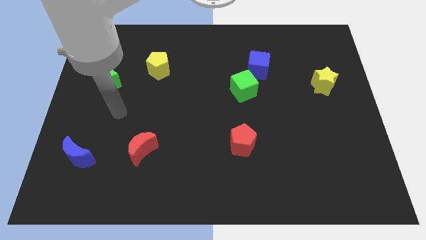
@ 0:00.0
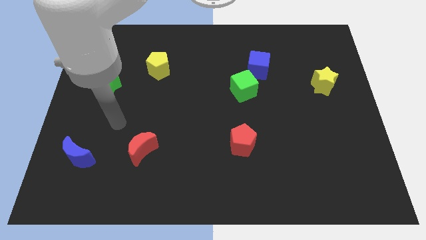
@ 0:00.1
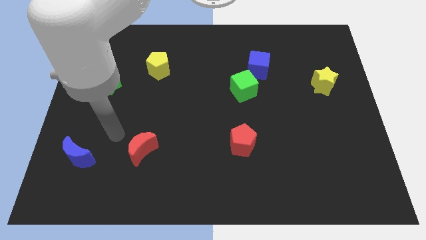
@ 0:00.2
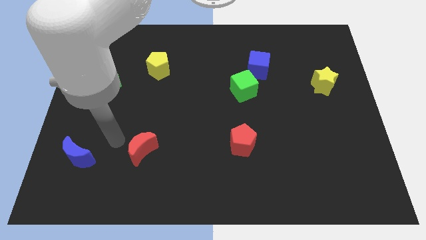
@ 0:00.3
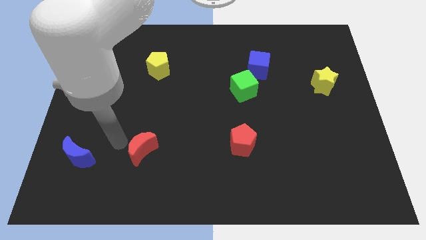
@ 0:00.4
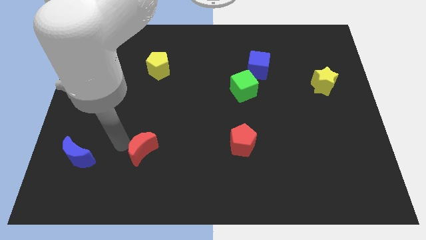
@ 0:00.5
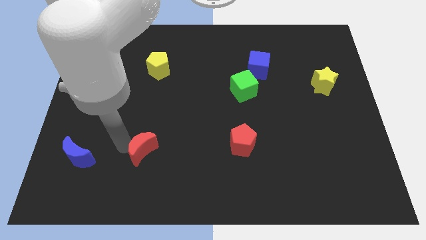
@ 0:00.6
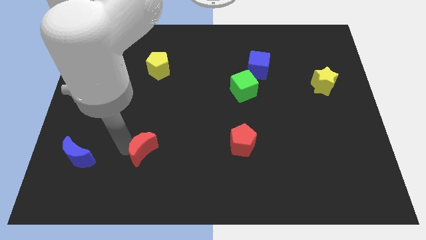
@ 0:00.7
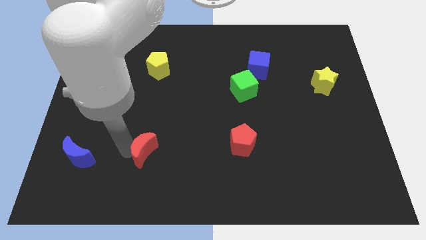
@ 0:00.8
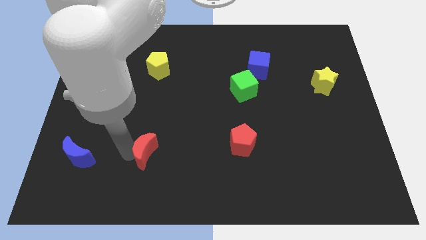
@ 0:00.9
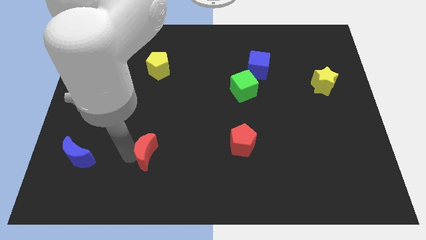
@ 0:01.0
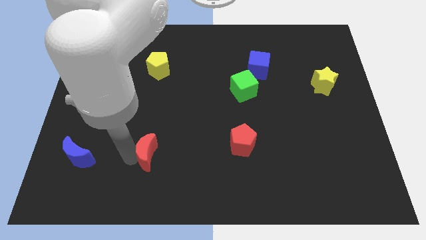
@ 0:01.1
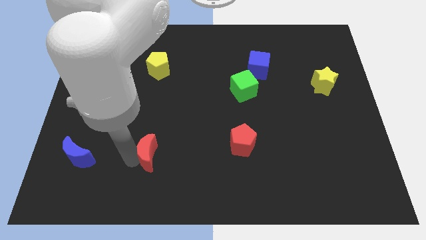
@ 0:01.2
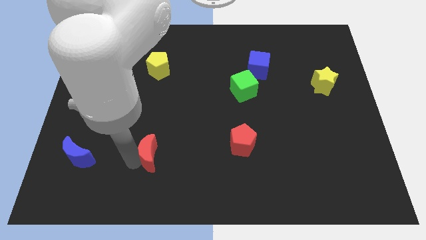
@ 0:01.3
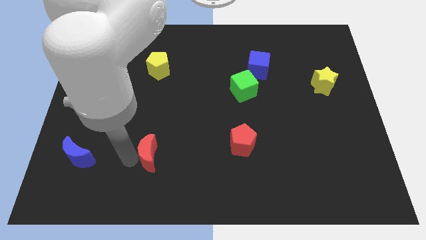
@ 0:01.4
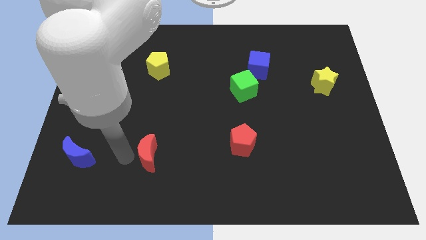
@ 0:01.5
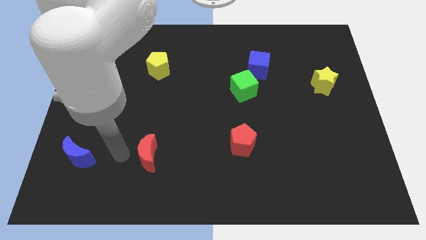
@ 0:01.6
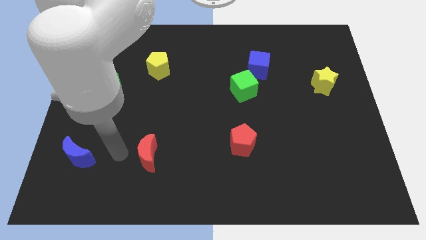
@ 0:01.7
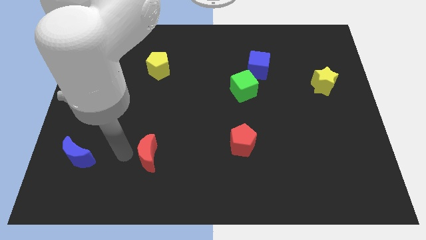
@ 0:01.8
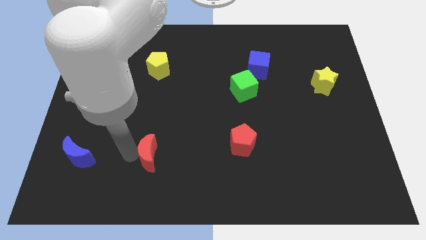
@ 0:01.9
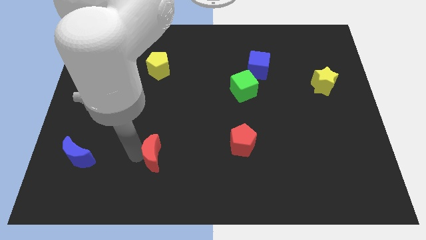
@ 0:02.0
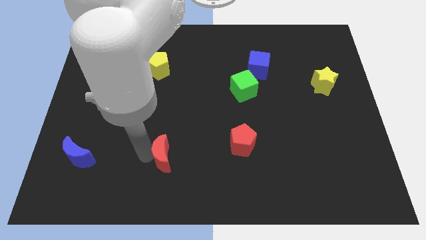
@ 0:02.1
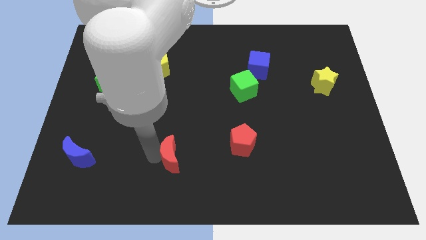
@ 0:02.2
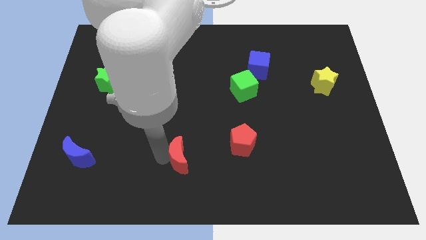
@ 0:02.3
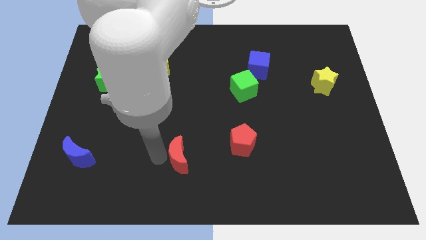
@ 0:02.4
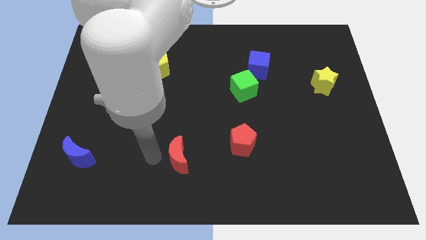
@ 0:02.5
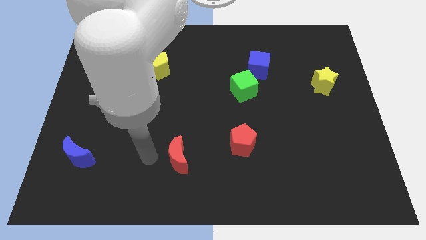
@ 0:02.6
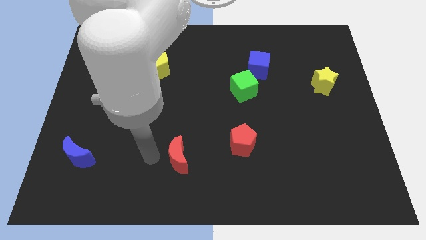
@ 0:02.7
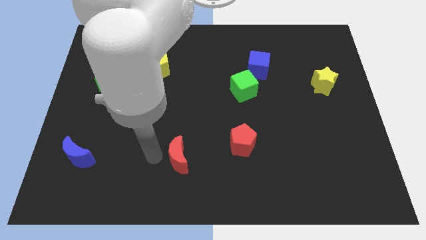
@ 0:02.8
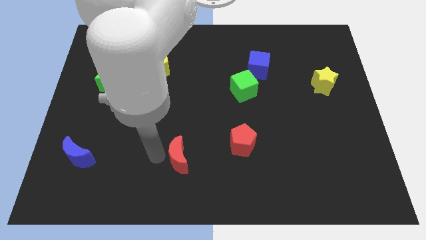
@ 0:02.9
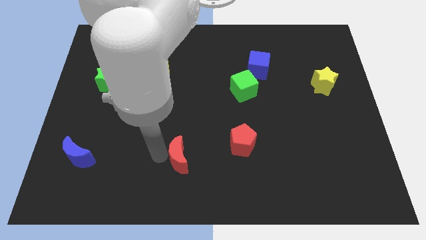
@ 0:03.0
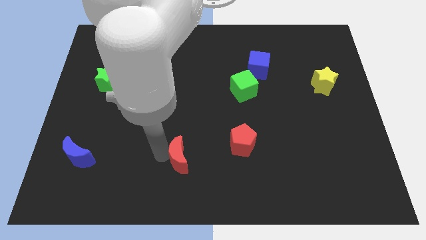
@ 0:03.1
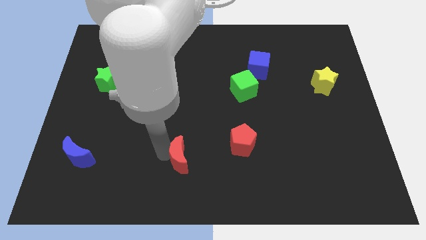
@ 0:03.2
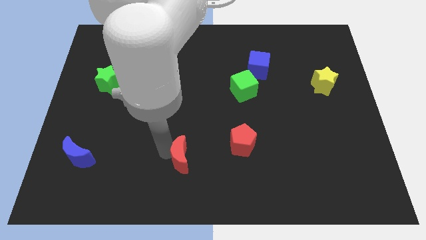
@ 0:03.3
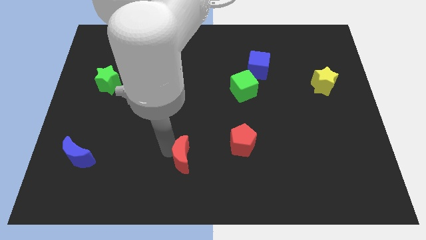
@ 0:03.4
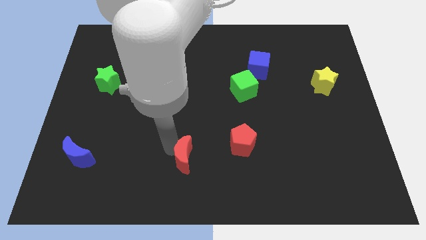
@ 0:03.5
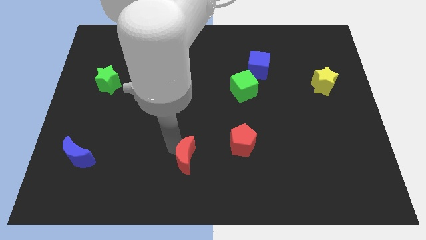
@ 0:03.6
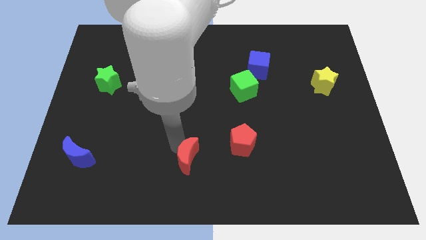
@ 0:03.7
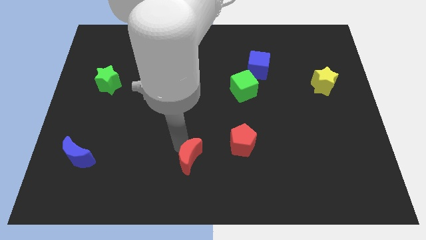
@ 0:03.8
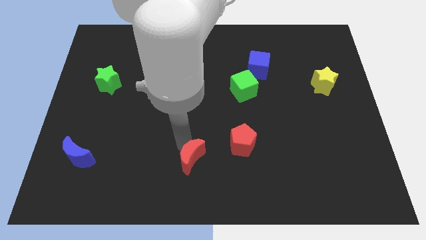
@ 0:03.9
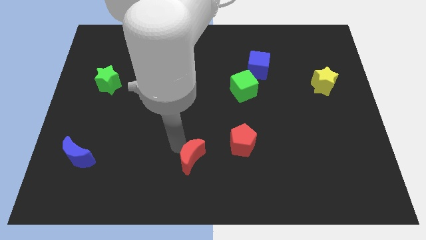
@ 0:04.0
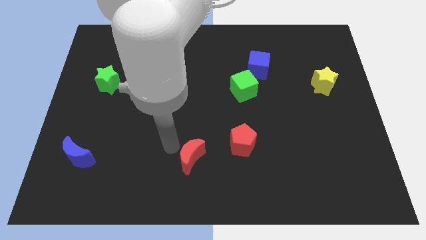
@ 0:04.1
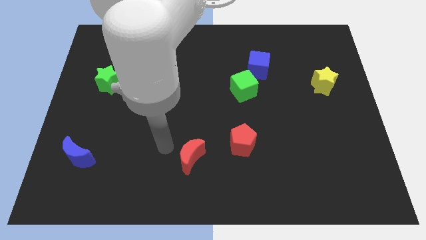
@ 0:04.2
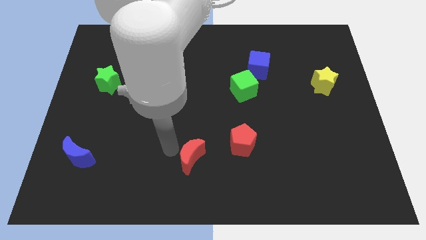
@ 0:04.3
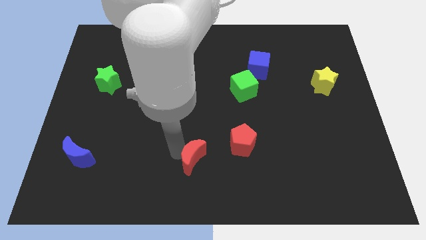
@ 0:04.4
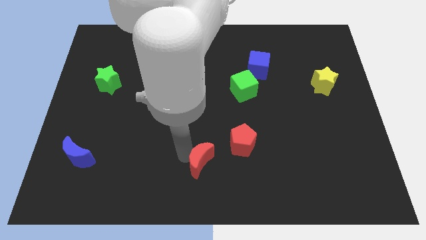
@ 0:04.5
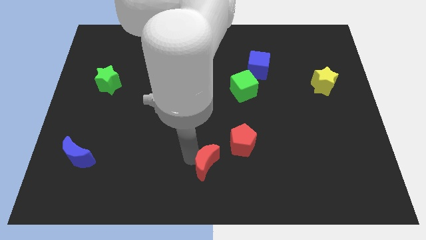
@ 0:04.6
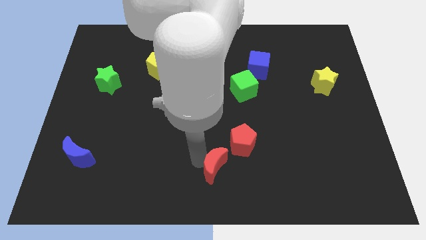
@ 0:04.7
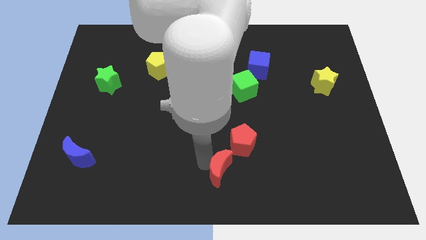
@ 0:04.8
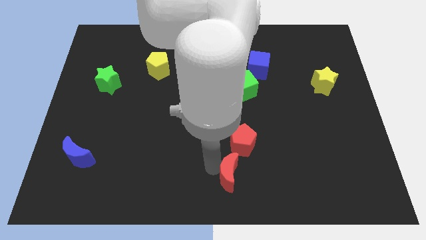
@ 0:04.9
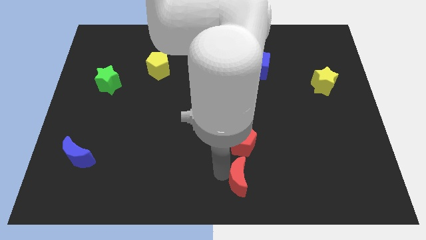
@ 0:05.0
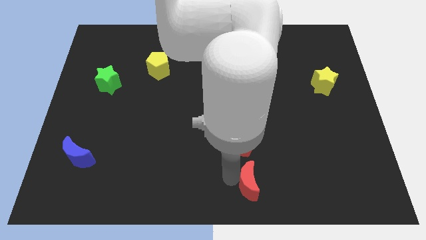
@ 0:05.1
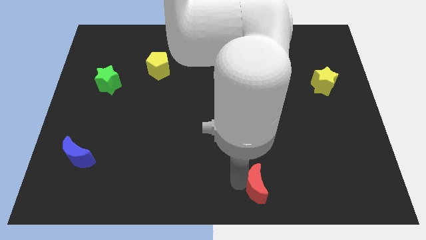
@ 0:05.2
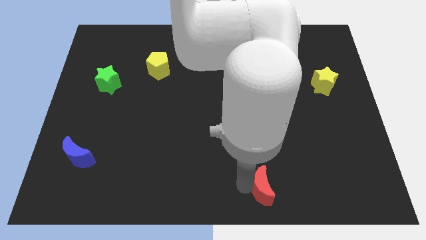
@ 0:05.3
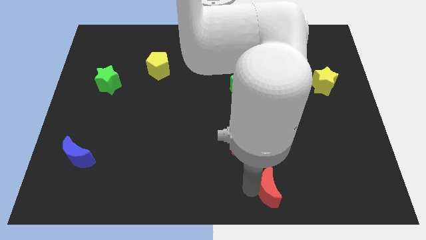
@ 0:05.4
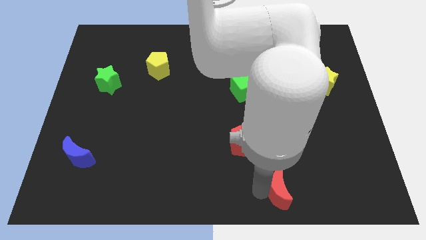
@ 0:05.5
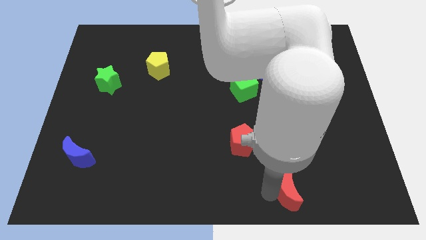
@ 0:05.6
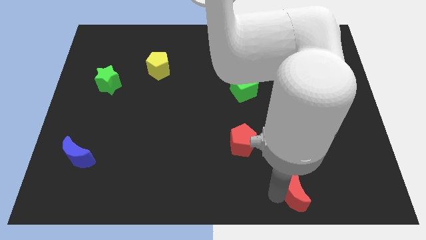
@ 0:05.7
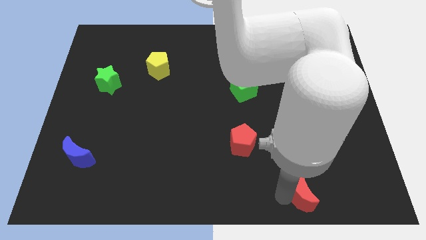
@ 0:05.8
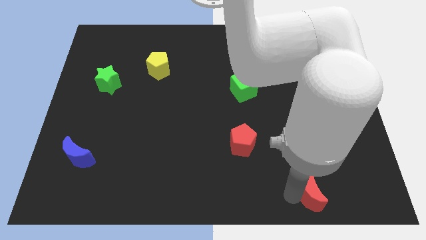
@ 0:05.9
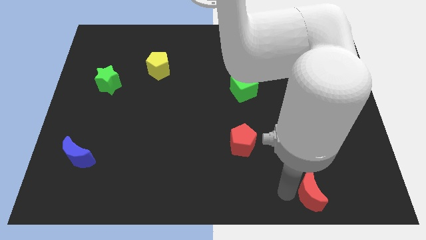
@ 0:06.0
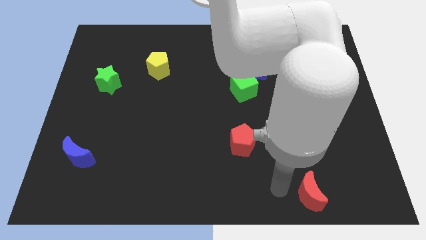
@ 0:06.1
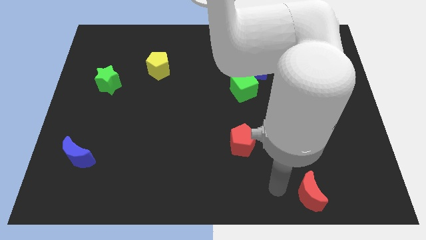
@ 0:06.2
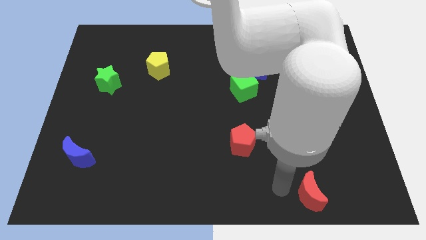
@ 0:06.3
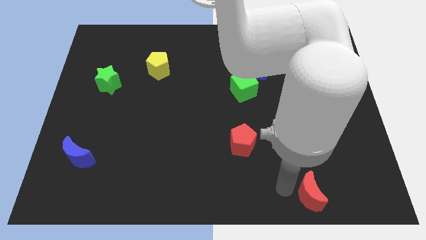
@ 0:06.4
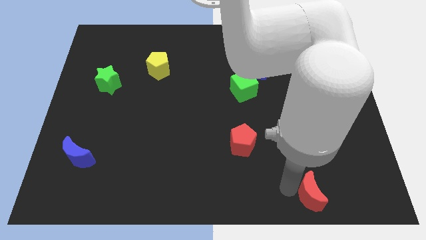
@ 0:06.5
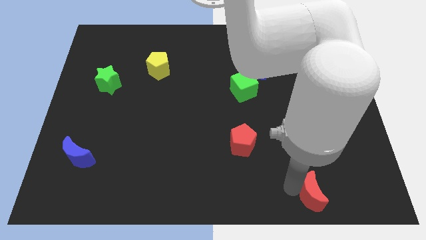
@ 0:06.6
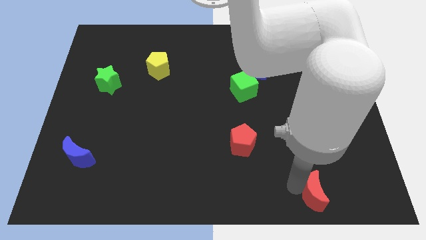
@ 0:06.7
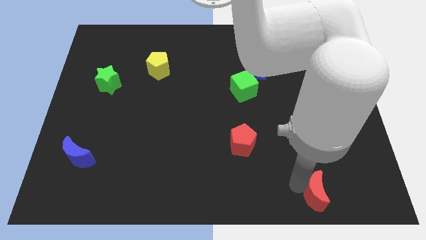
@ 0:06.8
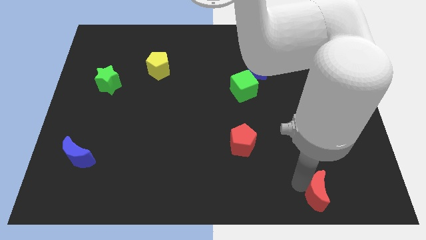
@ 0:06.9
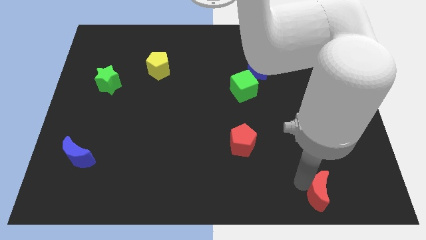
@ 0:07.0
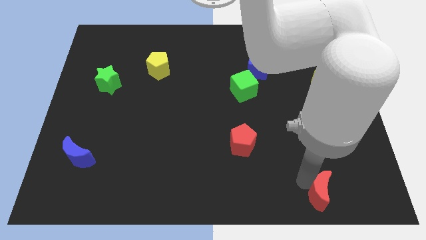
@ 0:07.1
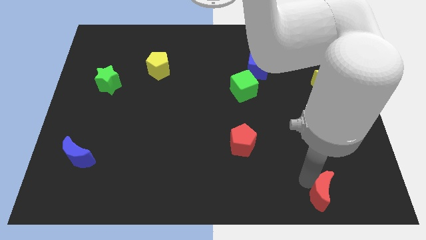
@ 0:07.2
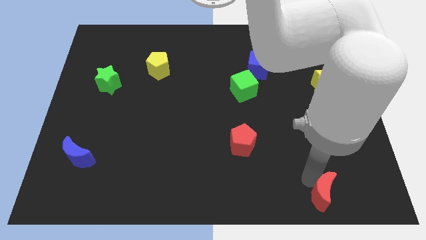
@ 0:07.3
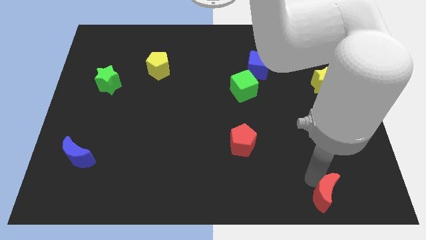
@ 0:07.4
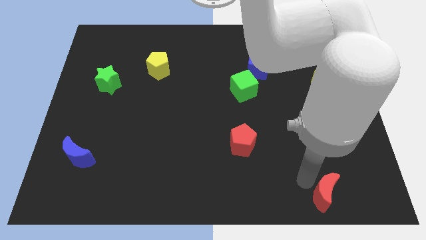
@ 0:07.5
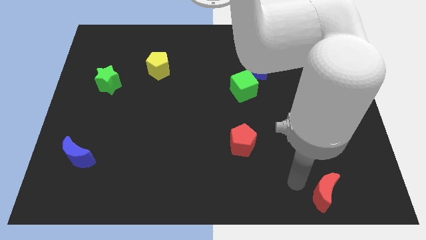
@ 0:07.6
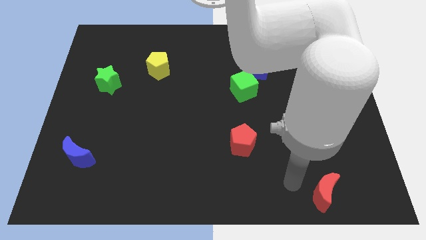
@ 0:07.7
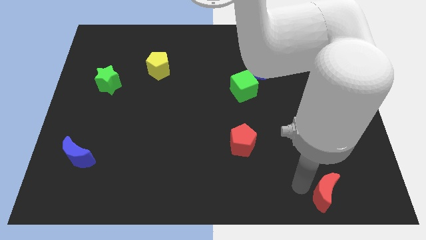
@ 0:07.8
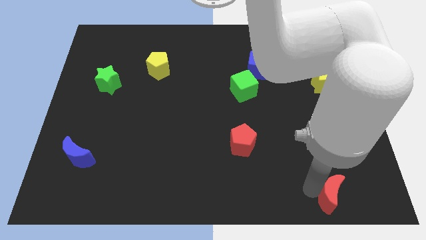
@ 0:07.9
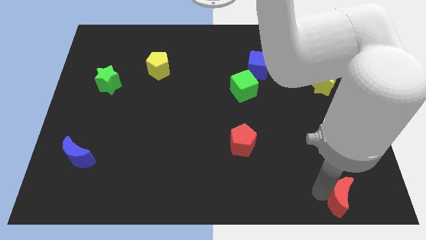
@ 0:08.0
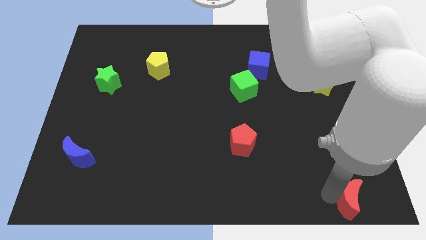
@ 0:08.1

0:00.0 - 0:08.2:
slide the red moon to the lower right corner
